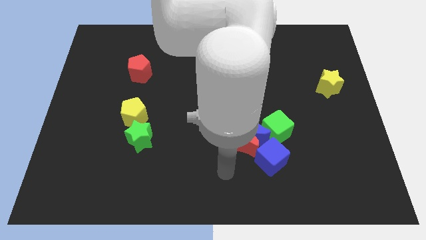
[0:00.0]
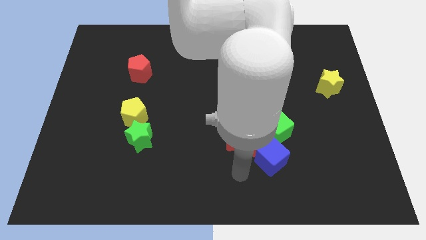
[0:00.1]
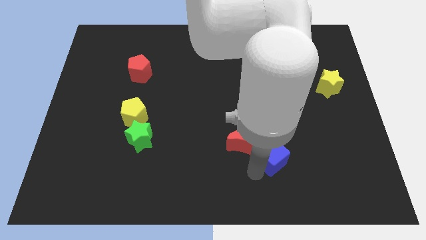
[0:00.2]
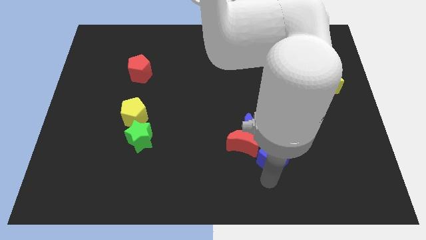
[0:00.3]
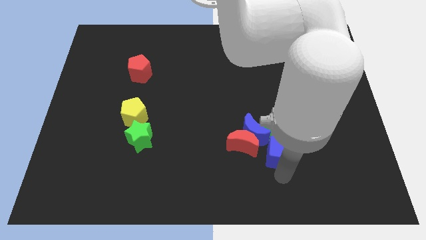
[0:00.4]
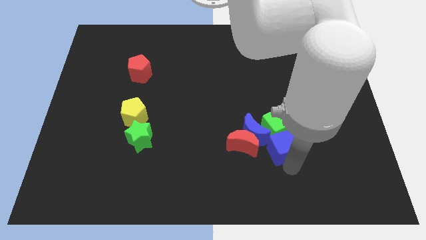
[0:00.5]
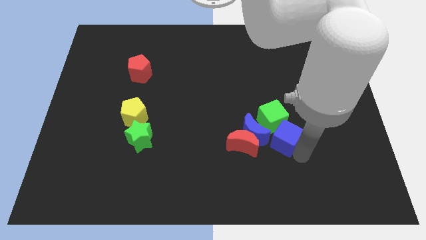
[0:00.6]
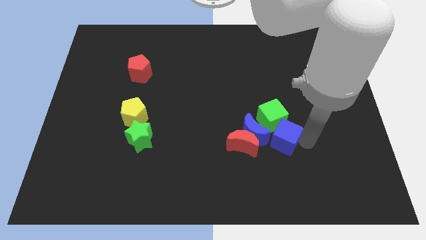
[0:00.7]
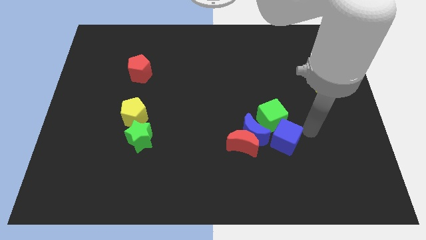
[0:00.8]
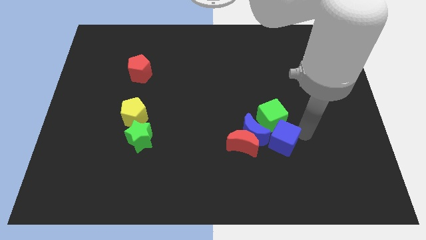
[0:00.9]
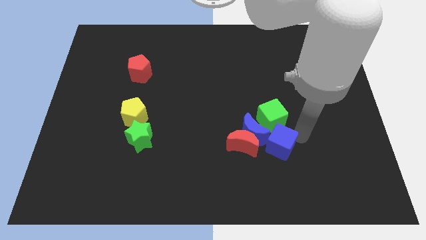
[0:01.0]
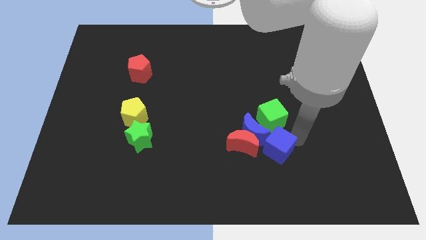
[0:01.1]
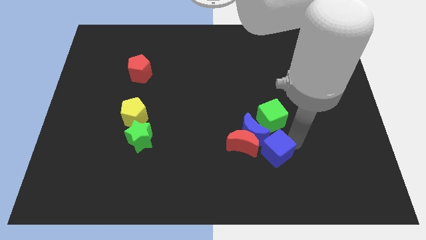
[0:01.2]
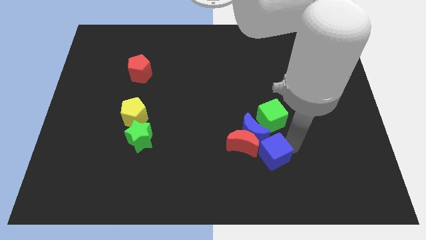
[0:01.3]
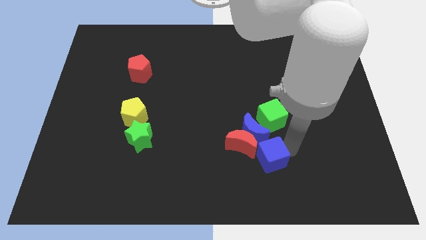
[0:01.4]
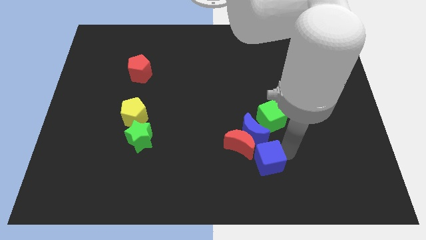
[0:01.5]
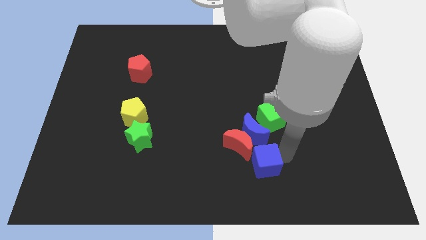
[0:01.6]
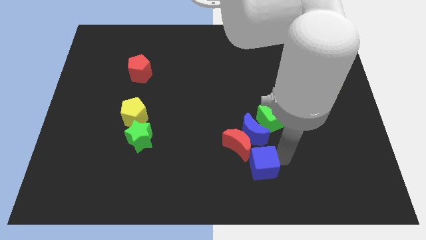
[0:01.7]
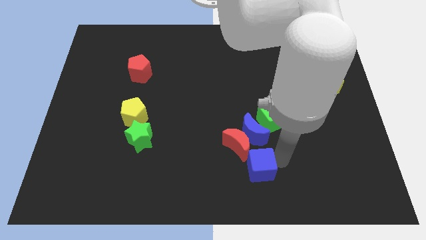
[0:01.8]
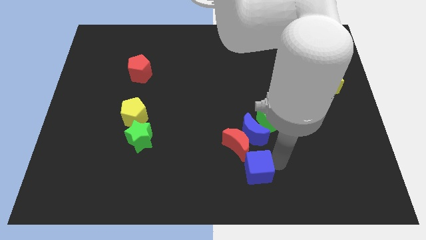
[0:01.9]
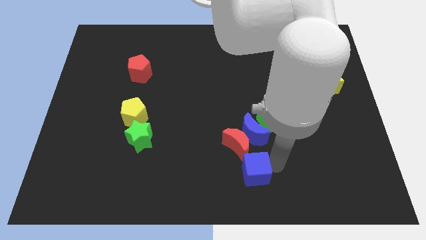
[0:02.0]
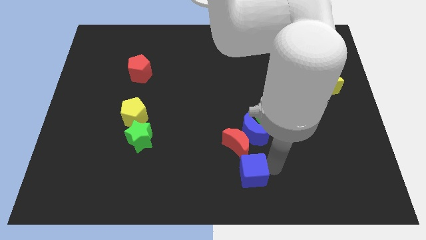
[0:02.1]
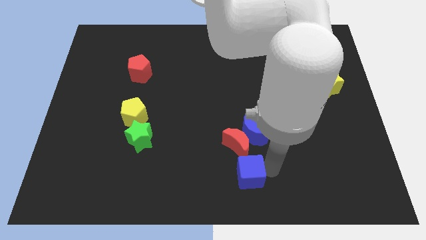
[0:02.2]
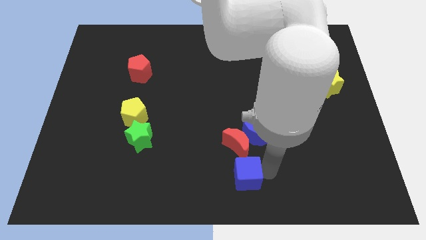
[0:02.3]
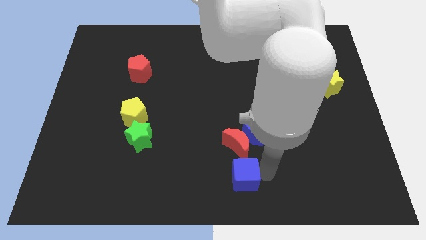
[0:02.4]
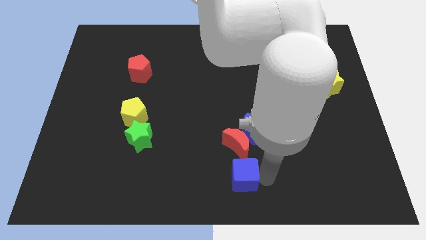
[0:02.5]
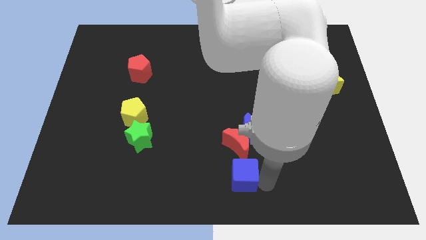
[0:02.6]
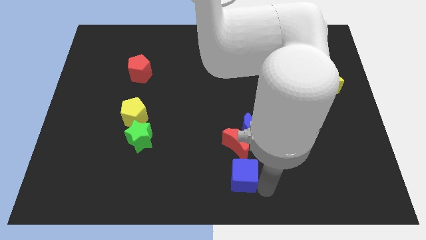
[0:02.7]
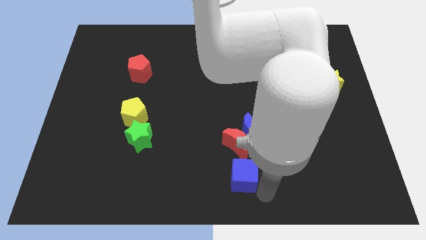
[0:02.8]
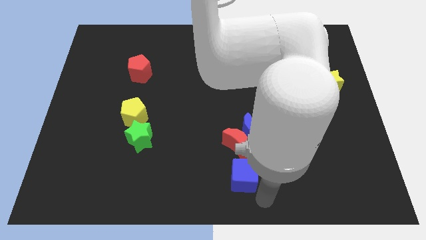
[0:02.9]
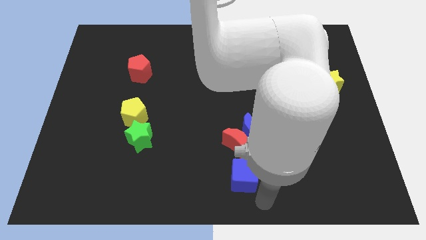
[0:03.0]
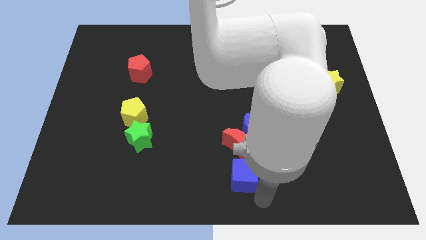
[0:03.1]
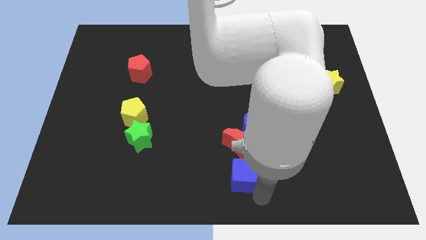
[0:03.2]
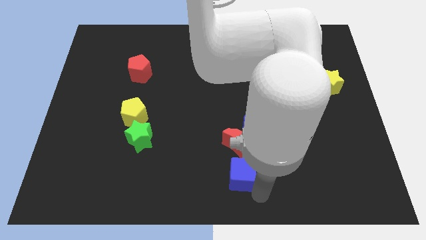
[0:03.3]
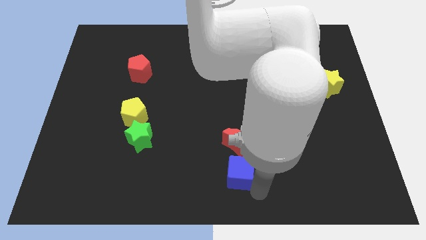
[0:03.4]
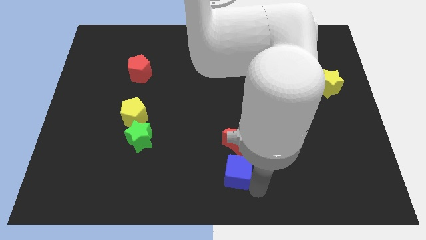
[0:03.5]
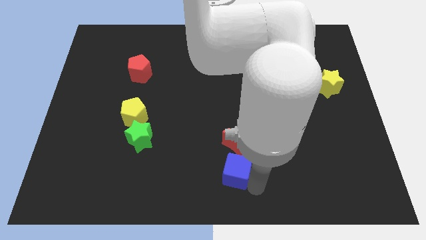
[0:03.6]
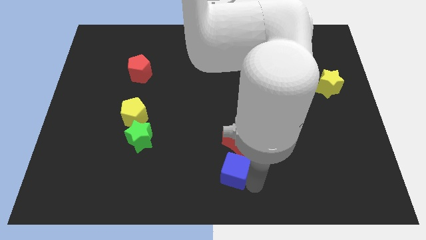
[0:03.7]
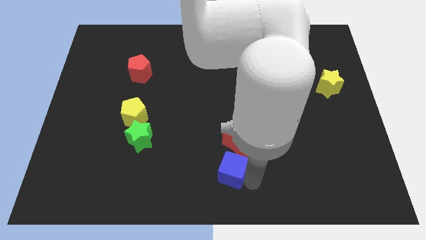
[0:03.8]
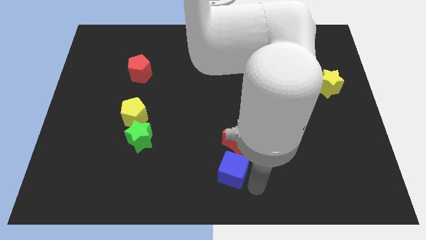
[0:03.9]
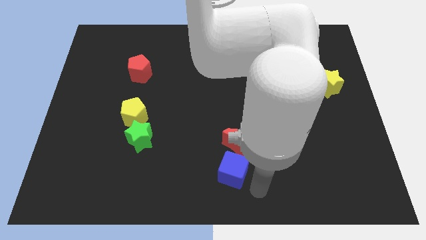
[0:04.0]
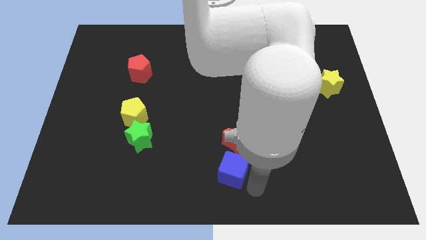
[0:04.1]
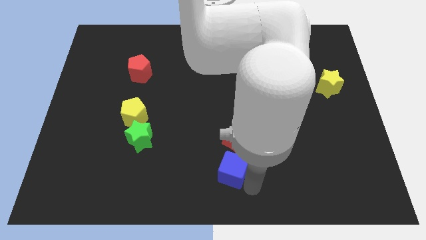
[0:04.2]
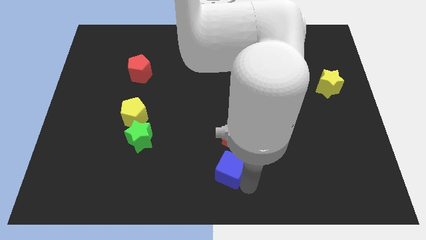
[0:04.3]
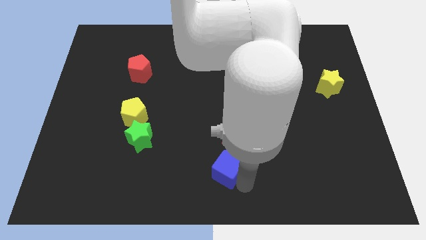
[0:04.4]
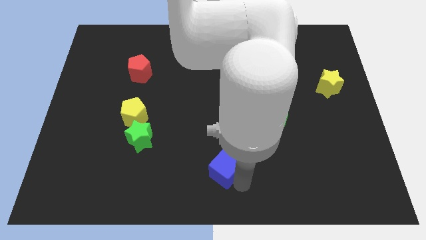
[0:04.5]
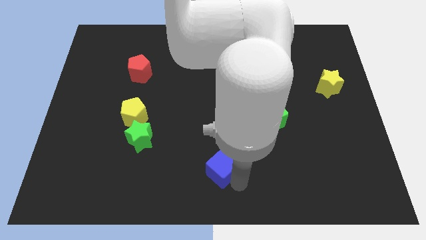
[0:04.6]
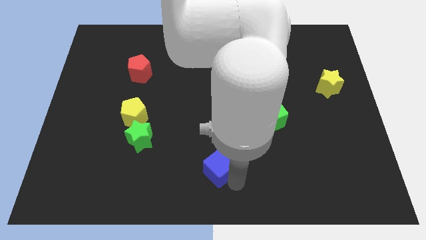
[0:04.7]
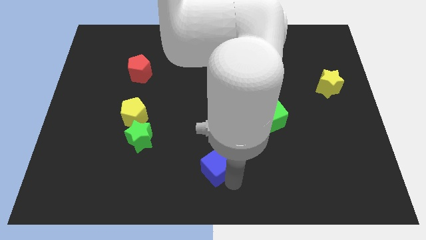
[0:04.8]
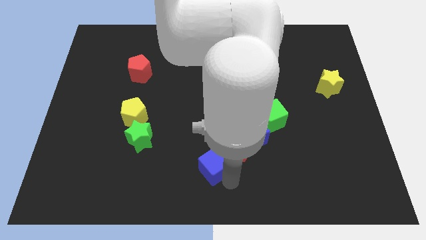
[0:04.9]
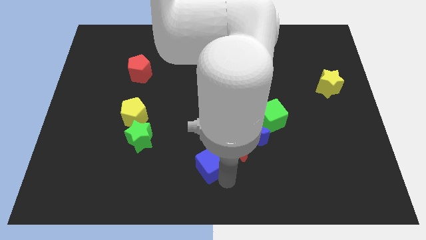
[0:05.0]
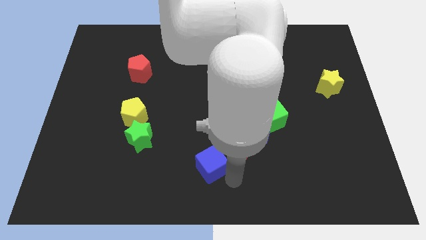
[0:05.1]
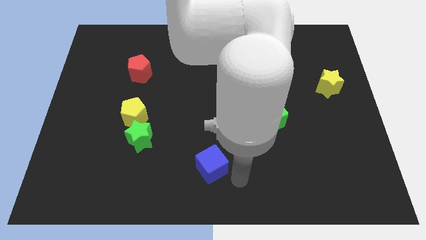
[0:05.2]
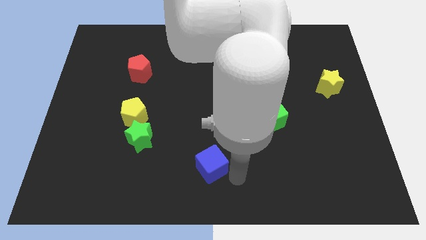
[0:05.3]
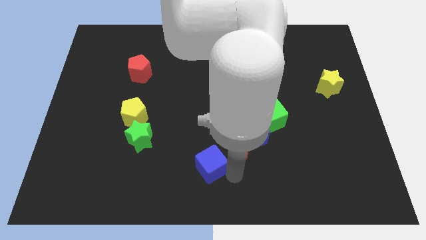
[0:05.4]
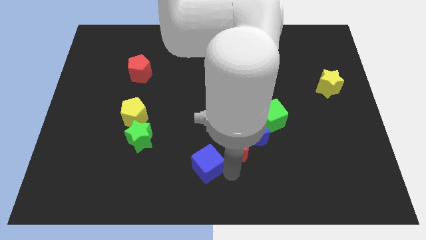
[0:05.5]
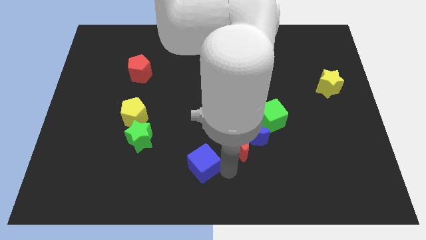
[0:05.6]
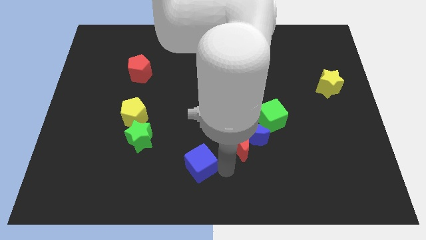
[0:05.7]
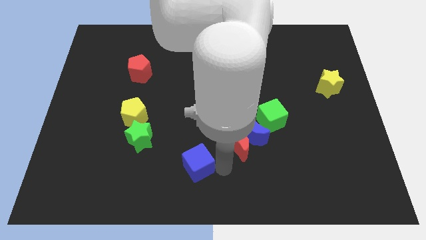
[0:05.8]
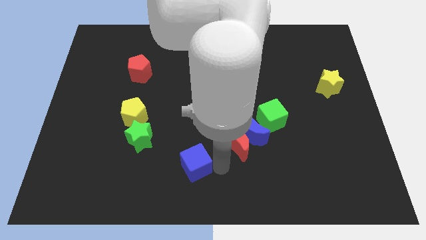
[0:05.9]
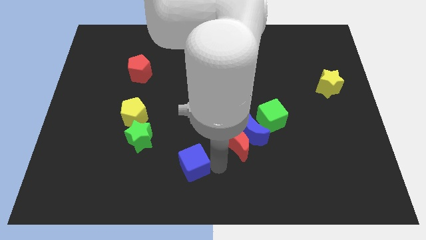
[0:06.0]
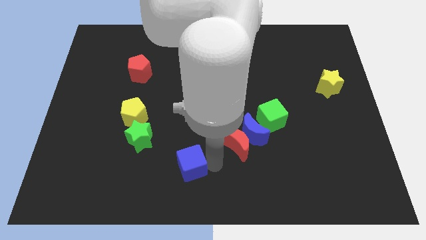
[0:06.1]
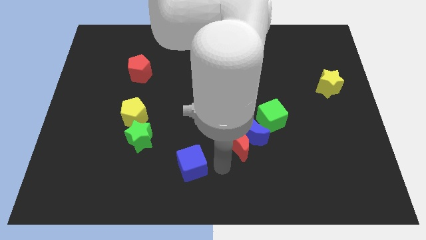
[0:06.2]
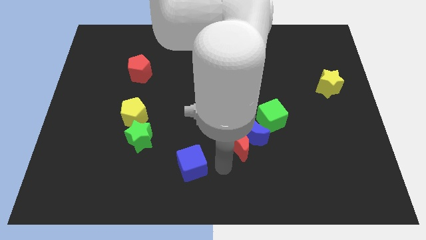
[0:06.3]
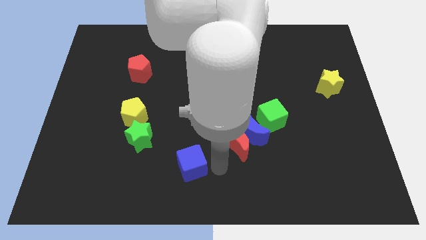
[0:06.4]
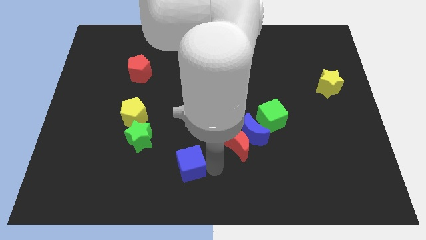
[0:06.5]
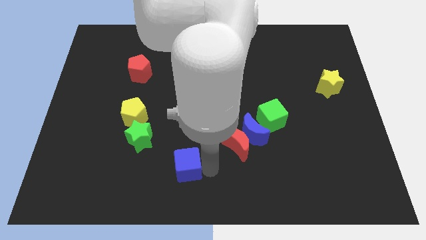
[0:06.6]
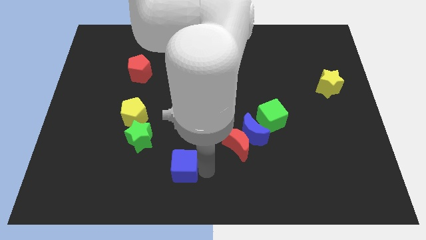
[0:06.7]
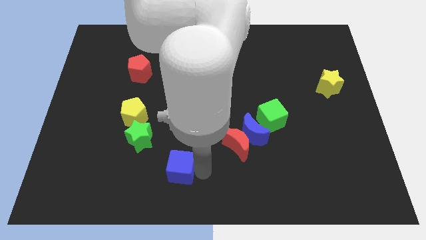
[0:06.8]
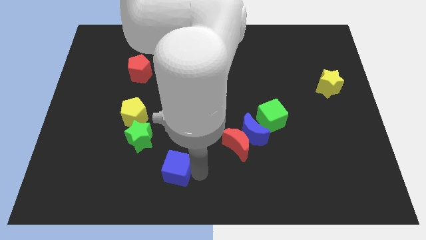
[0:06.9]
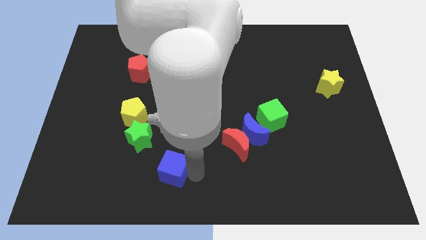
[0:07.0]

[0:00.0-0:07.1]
move the blue cube left

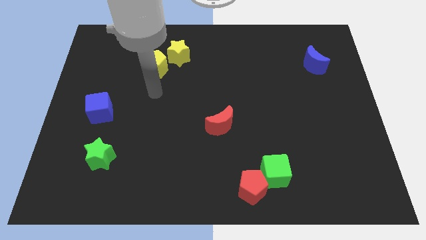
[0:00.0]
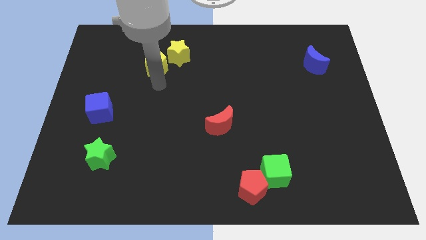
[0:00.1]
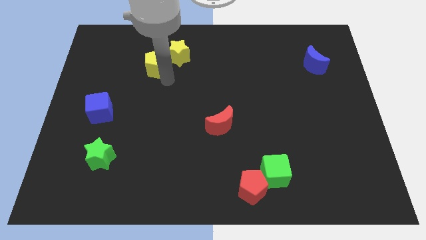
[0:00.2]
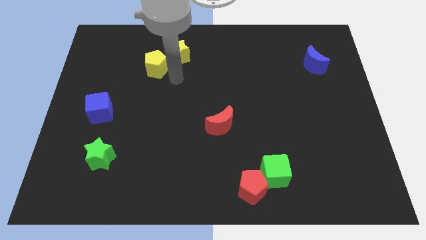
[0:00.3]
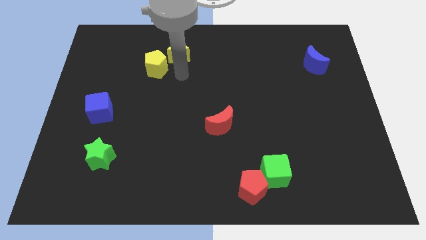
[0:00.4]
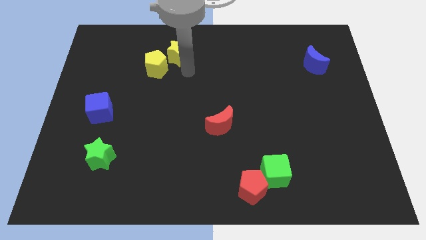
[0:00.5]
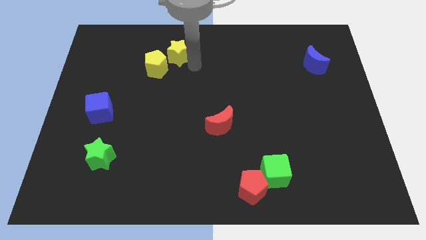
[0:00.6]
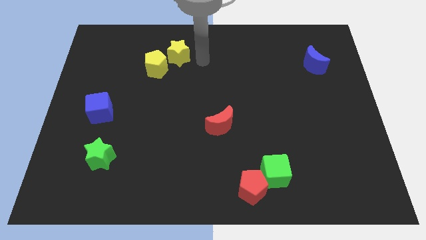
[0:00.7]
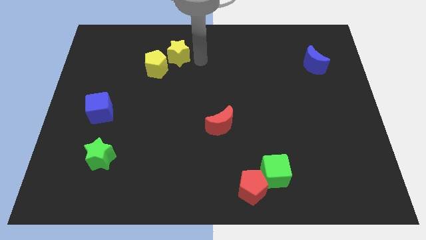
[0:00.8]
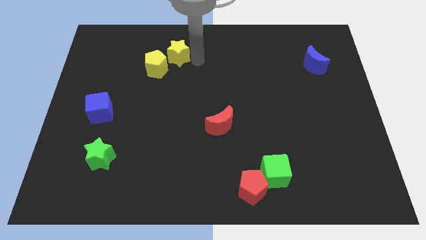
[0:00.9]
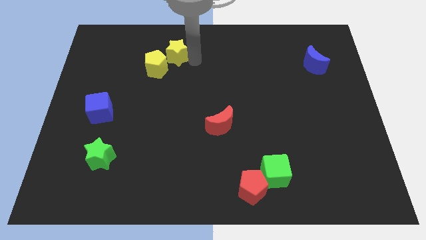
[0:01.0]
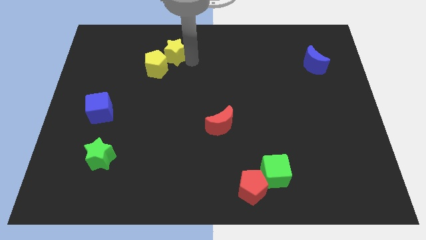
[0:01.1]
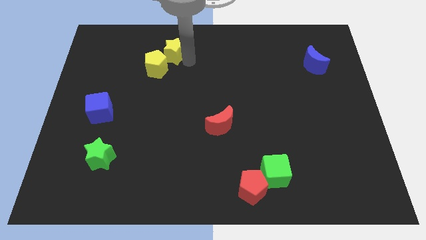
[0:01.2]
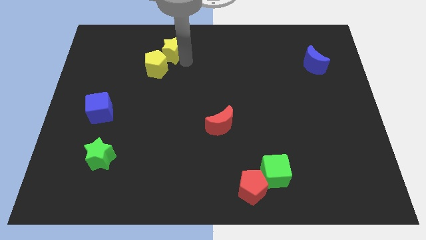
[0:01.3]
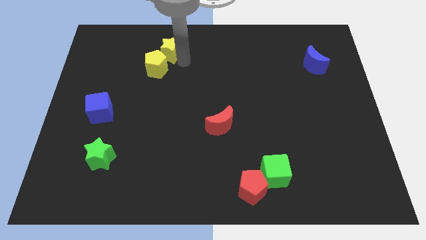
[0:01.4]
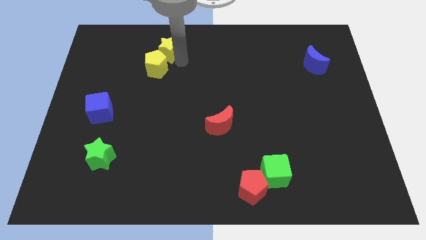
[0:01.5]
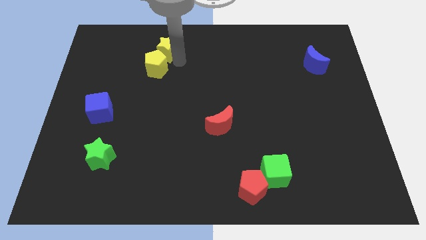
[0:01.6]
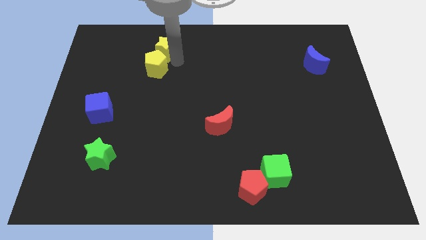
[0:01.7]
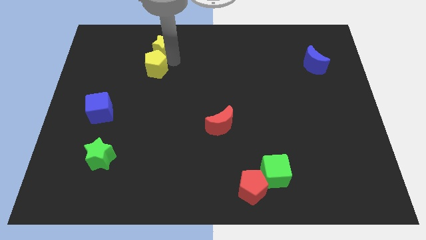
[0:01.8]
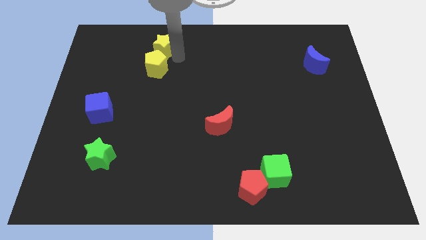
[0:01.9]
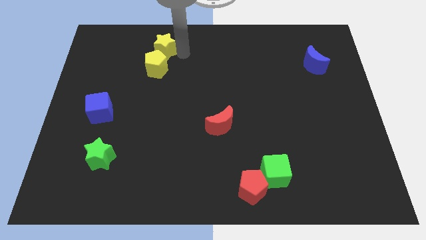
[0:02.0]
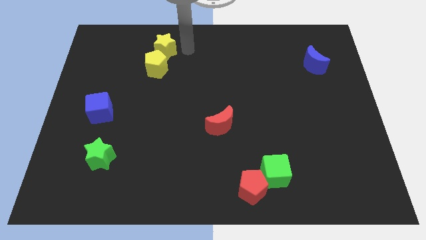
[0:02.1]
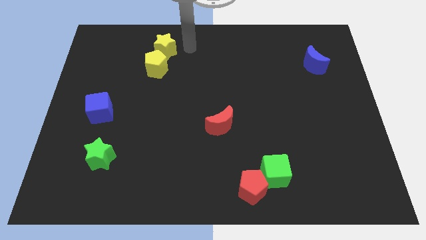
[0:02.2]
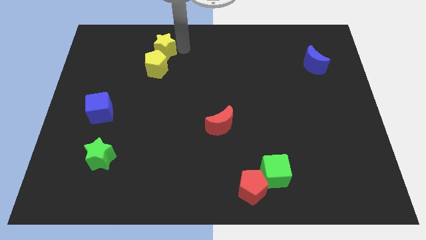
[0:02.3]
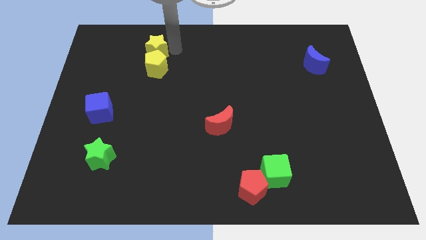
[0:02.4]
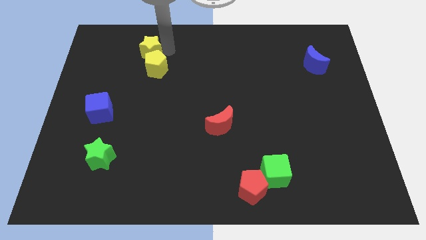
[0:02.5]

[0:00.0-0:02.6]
slide the yellow star to the left a bit
